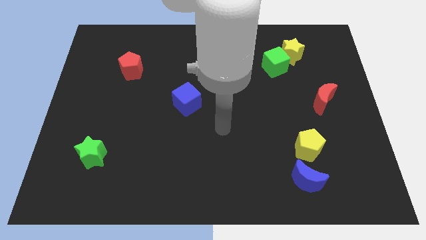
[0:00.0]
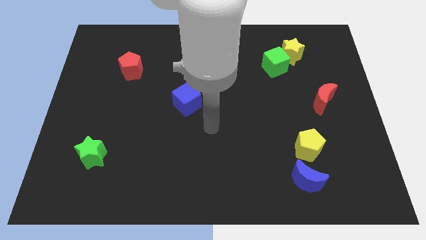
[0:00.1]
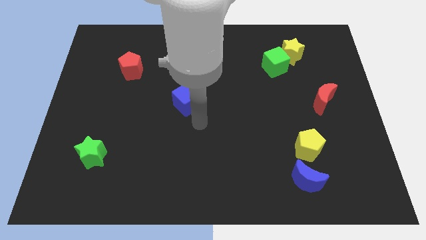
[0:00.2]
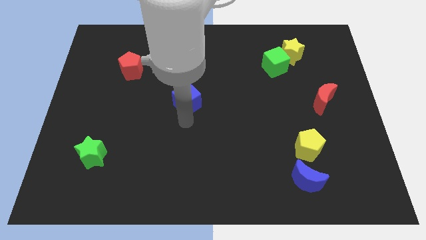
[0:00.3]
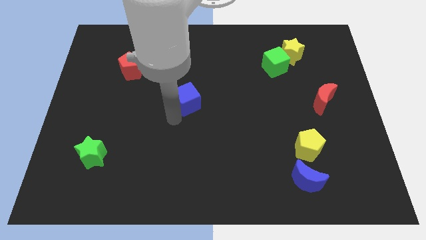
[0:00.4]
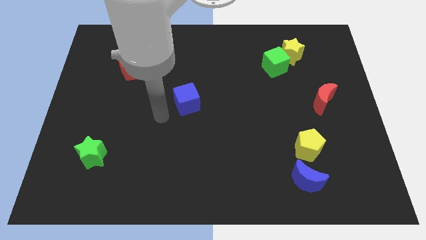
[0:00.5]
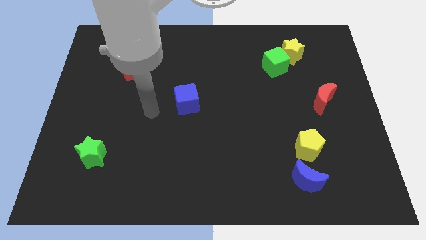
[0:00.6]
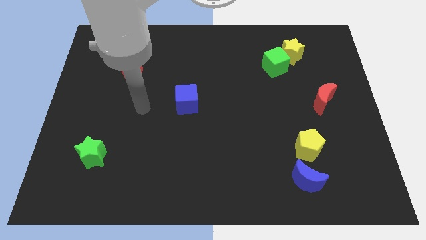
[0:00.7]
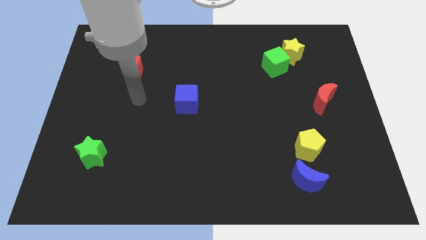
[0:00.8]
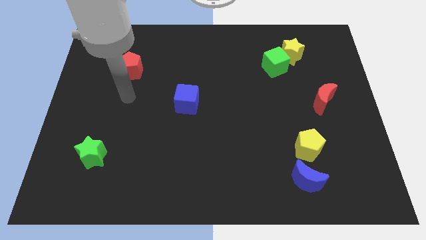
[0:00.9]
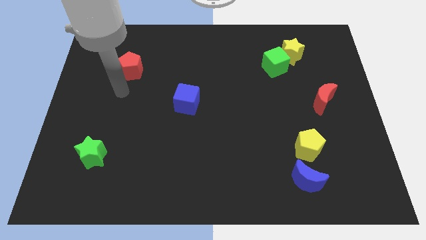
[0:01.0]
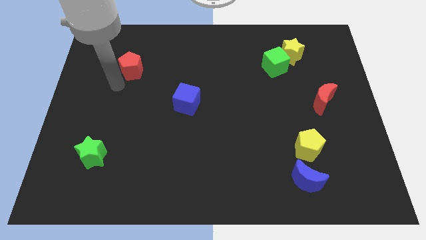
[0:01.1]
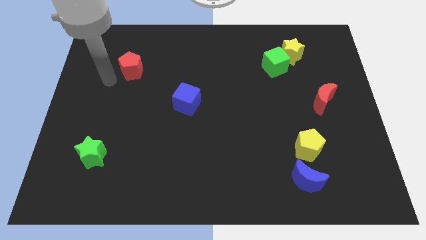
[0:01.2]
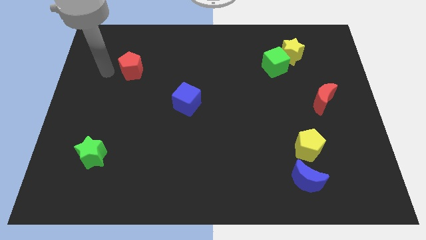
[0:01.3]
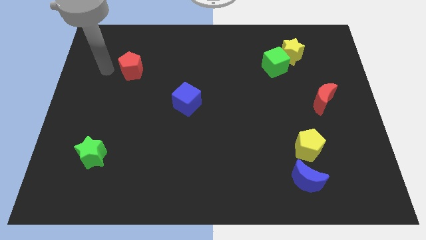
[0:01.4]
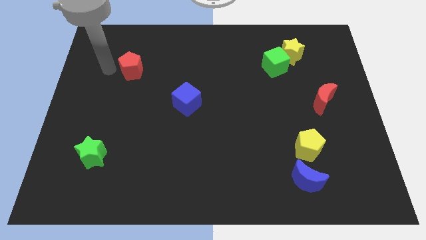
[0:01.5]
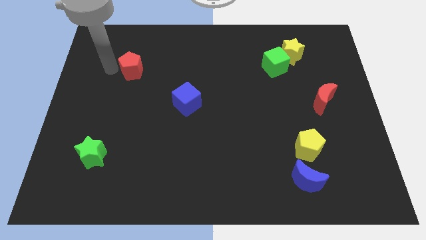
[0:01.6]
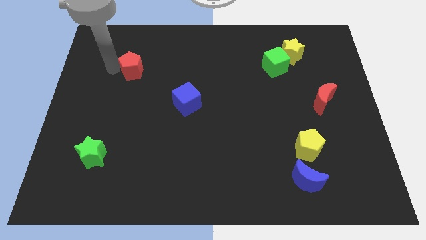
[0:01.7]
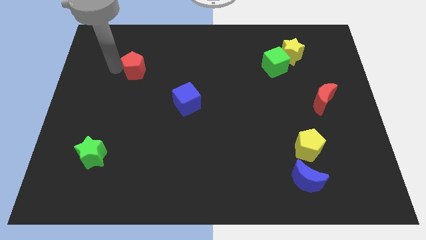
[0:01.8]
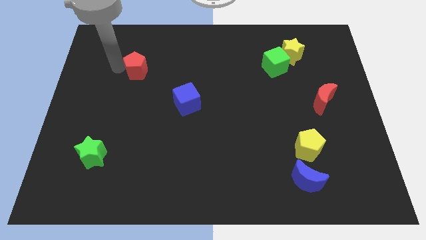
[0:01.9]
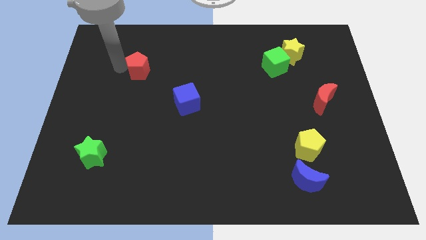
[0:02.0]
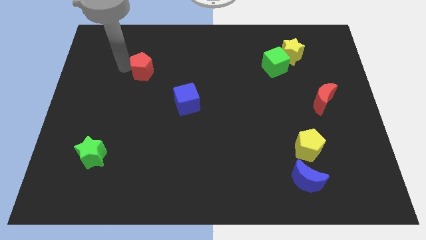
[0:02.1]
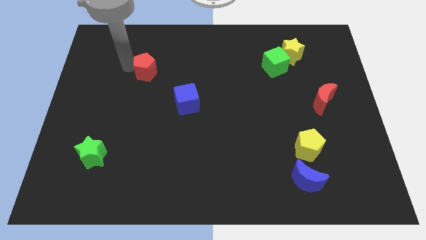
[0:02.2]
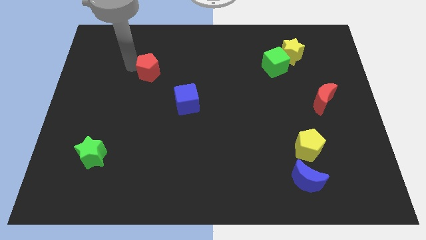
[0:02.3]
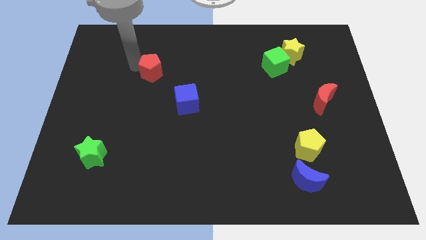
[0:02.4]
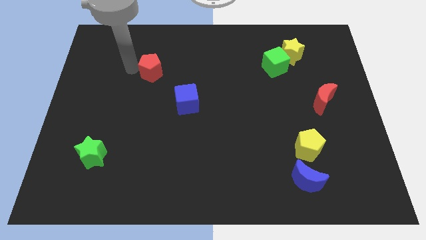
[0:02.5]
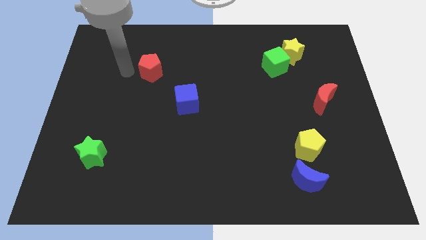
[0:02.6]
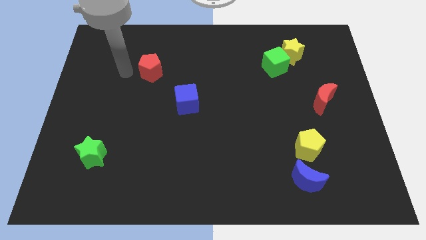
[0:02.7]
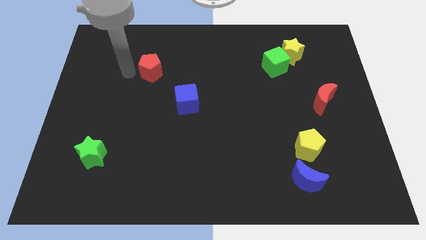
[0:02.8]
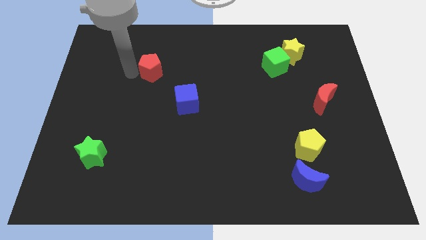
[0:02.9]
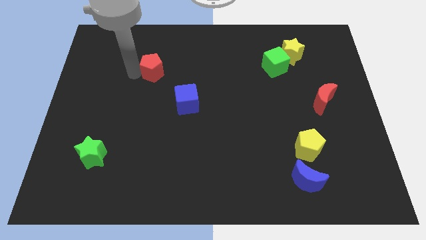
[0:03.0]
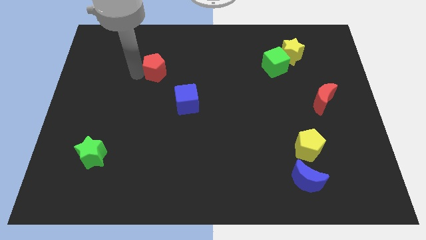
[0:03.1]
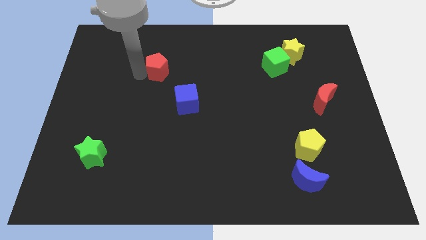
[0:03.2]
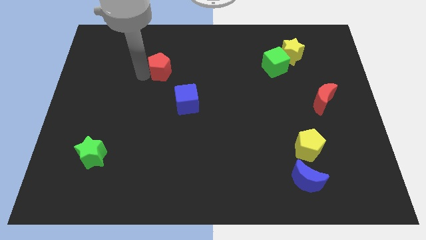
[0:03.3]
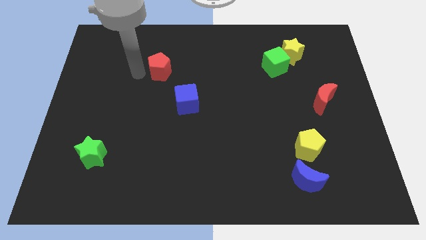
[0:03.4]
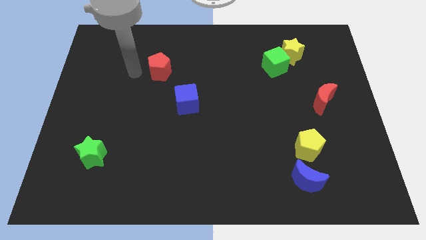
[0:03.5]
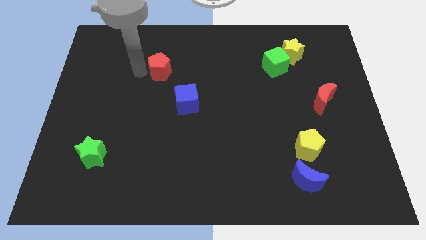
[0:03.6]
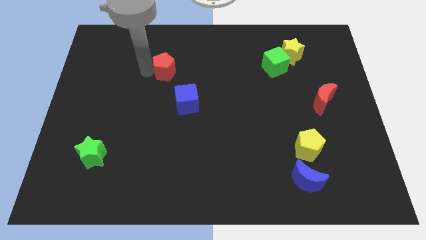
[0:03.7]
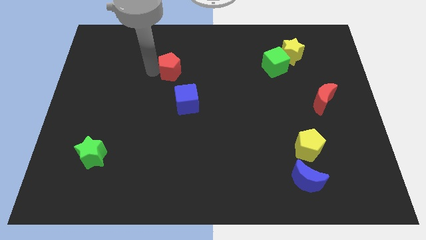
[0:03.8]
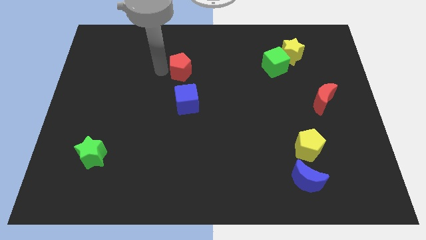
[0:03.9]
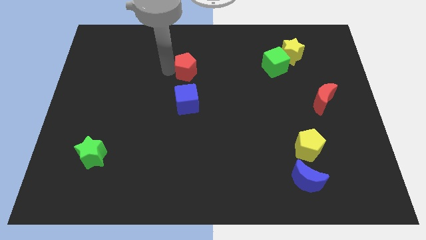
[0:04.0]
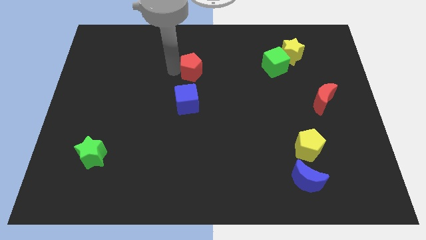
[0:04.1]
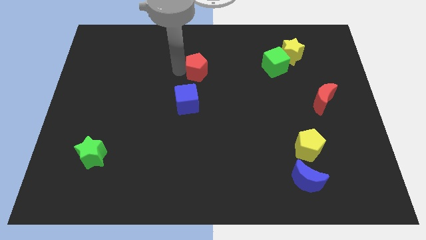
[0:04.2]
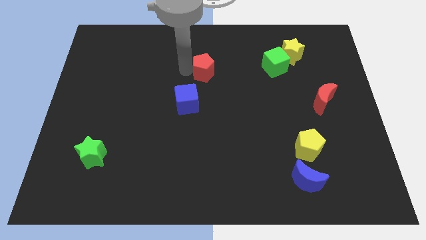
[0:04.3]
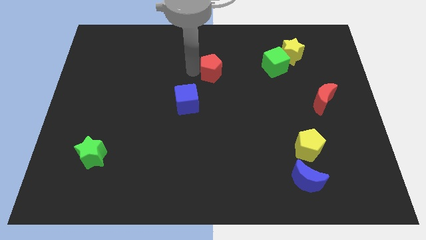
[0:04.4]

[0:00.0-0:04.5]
slide the red pentagon right

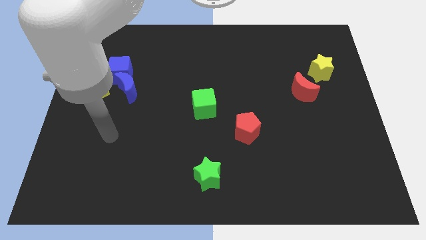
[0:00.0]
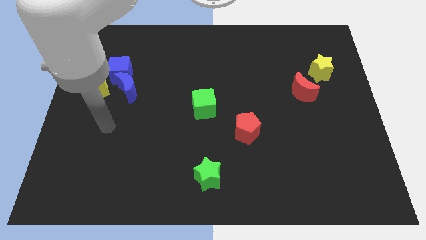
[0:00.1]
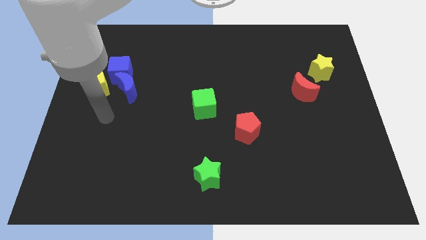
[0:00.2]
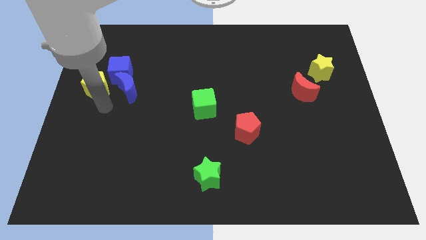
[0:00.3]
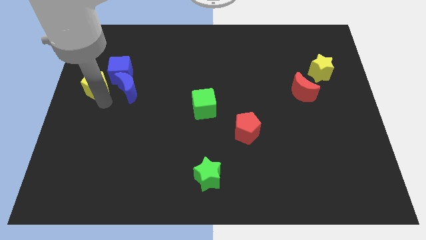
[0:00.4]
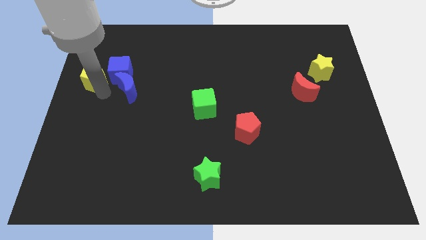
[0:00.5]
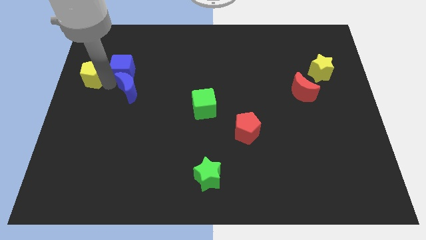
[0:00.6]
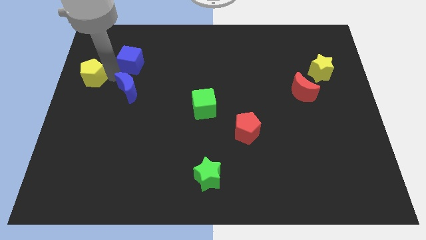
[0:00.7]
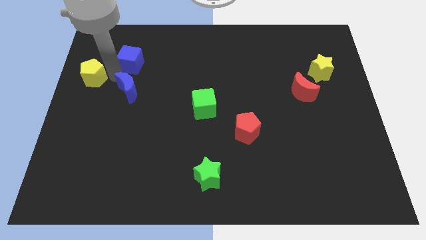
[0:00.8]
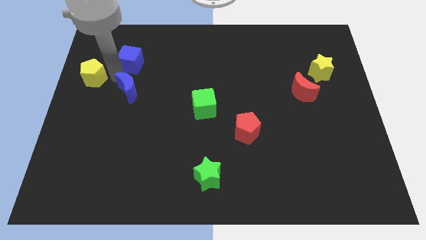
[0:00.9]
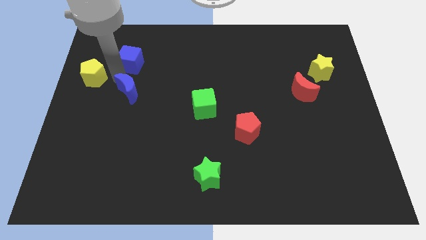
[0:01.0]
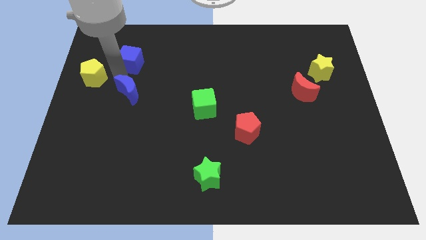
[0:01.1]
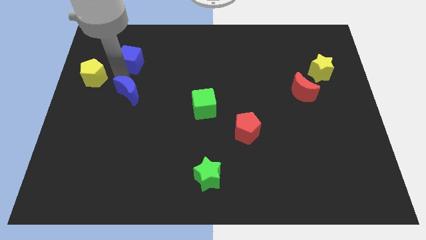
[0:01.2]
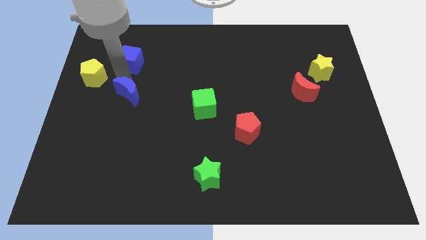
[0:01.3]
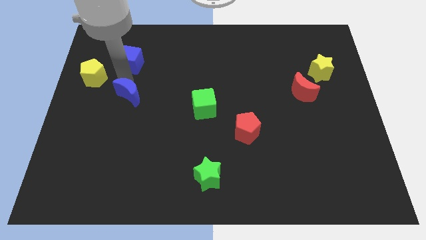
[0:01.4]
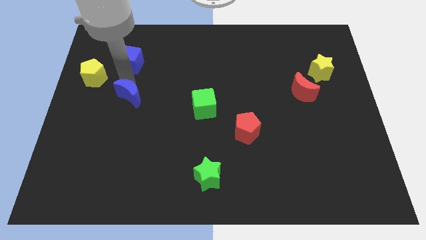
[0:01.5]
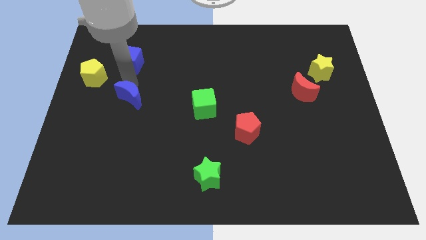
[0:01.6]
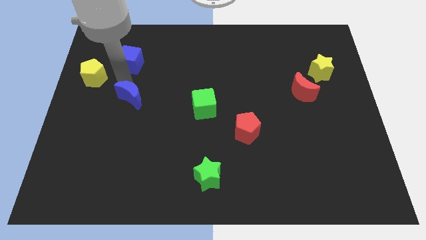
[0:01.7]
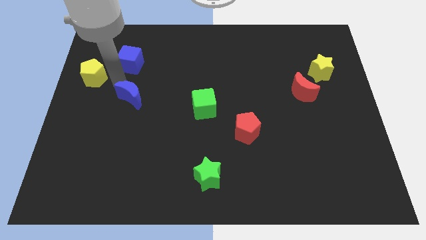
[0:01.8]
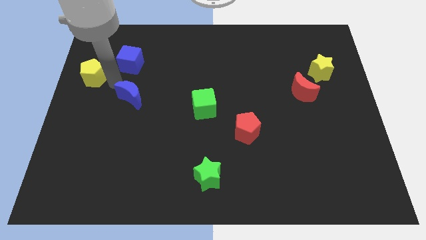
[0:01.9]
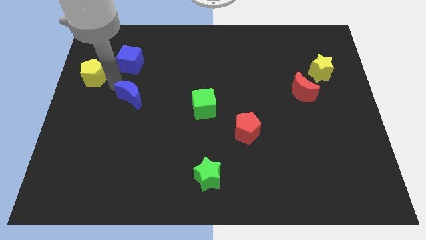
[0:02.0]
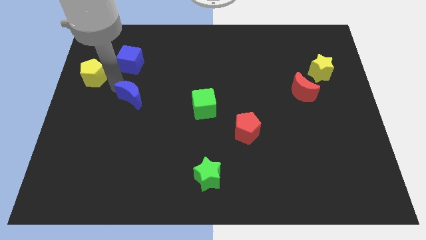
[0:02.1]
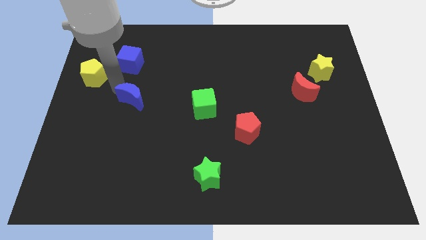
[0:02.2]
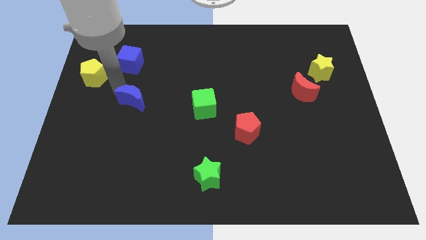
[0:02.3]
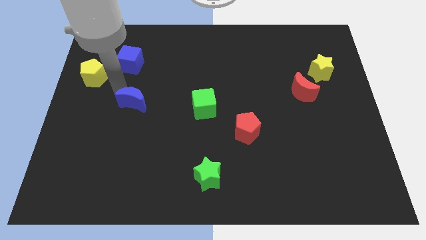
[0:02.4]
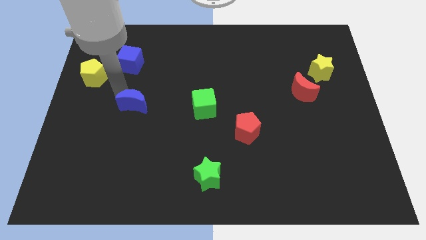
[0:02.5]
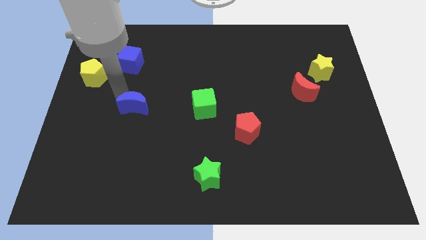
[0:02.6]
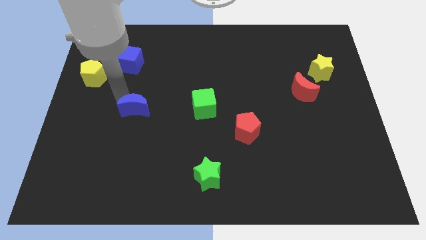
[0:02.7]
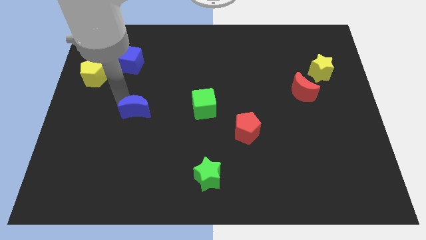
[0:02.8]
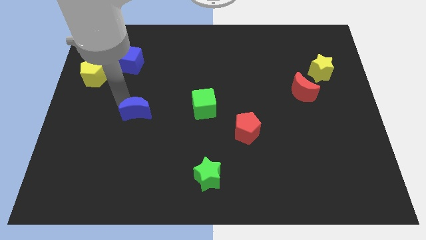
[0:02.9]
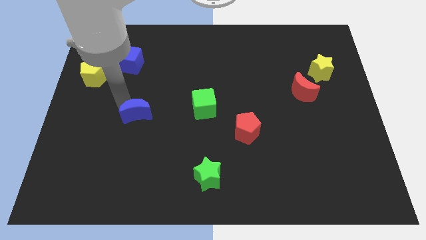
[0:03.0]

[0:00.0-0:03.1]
push the blue moon downwards and to the right diagonally a little bit

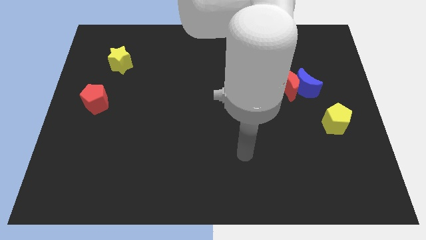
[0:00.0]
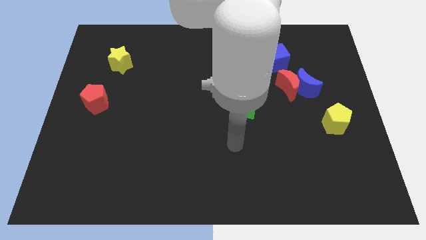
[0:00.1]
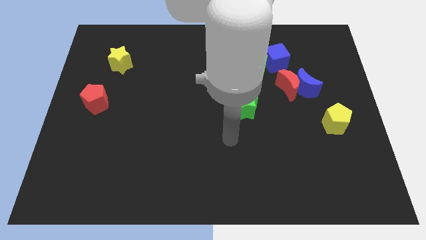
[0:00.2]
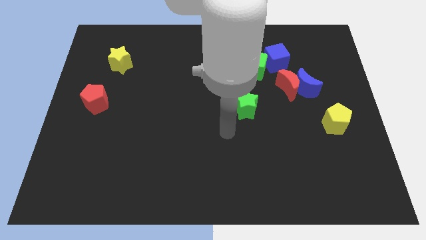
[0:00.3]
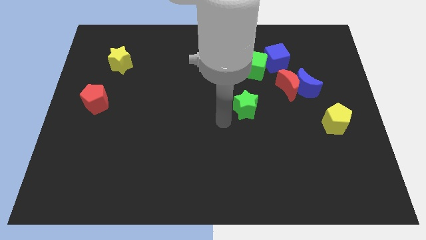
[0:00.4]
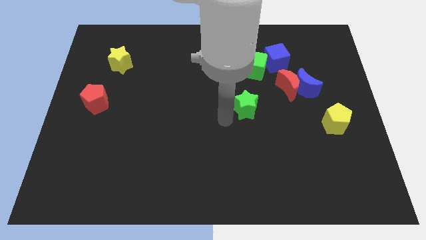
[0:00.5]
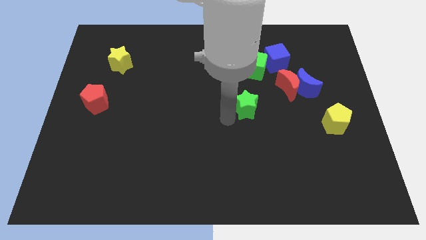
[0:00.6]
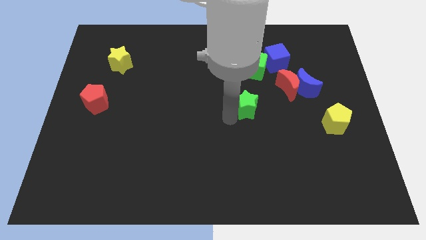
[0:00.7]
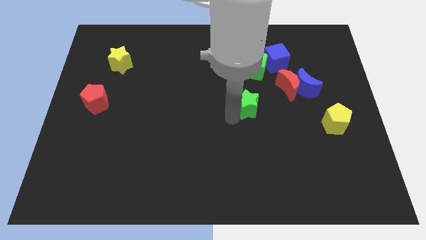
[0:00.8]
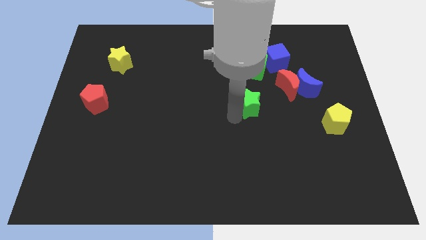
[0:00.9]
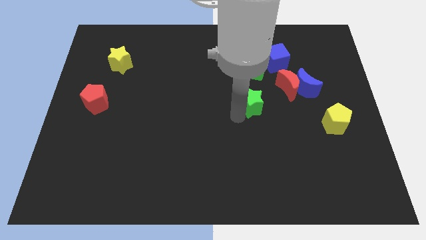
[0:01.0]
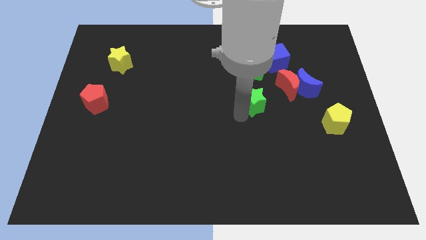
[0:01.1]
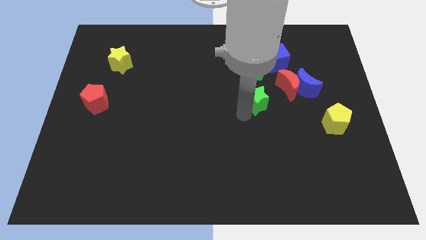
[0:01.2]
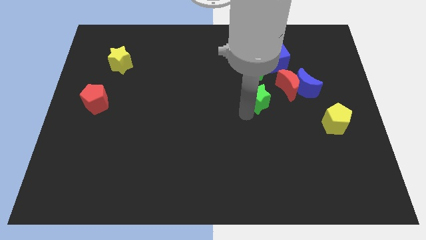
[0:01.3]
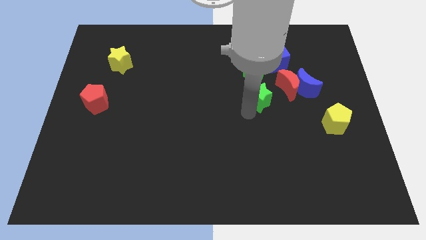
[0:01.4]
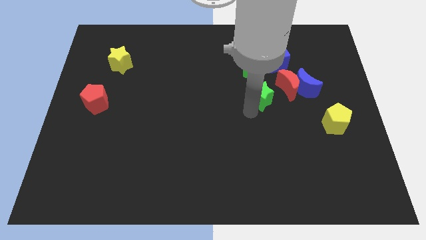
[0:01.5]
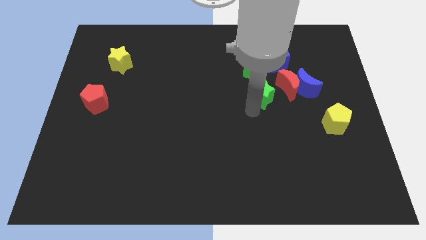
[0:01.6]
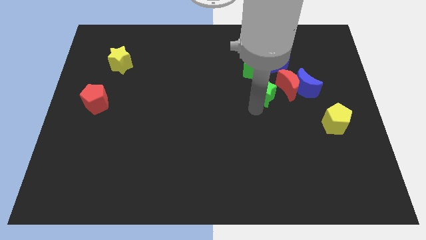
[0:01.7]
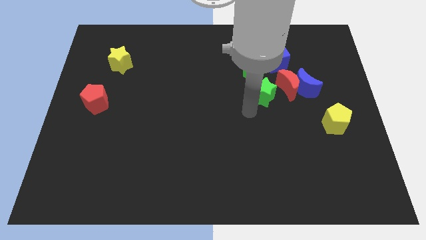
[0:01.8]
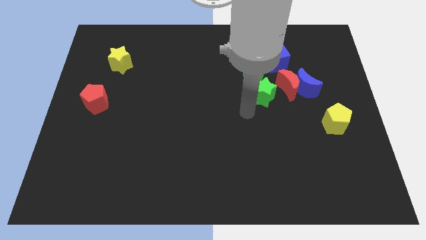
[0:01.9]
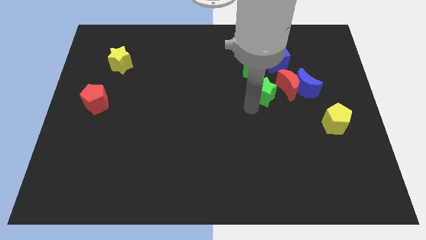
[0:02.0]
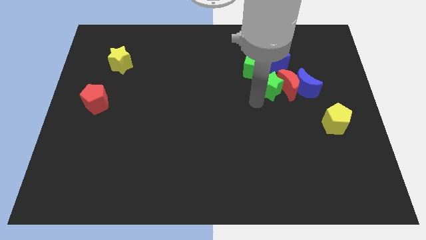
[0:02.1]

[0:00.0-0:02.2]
slightly push the green star upwards and then to the right
